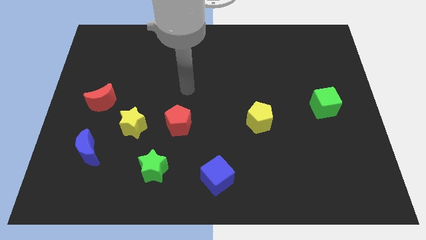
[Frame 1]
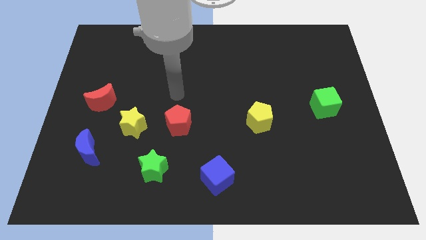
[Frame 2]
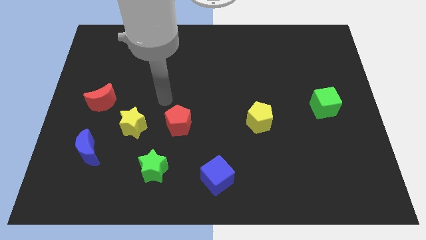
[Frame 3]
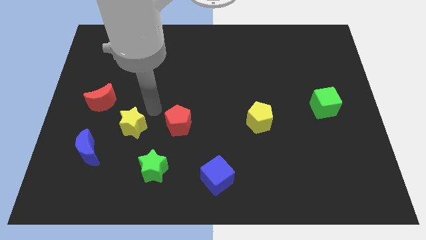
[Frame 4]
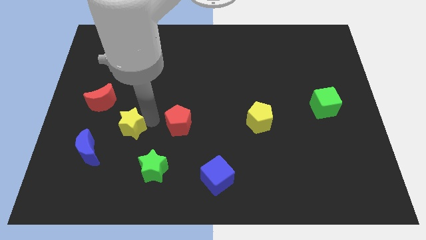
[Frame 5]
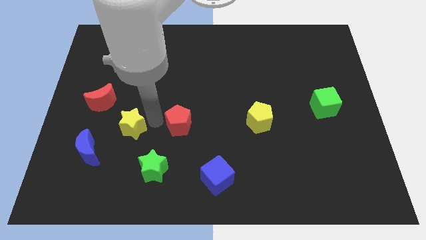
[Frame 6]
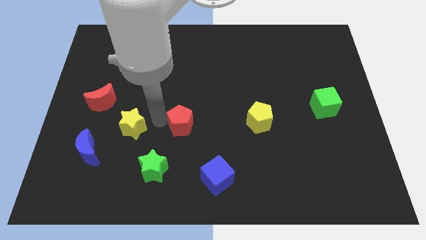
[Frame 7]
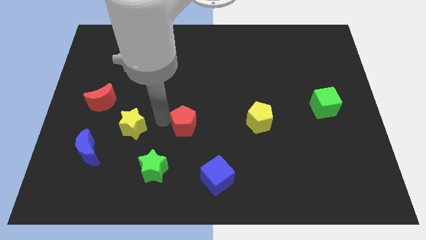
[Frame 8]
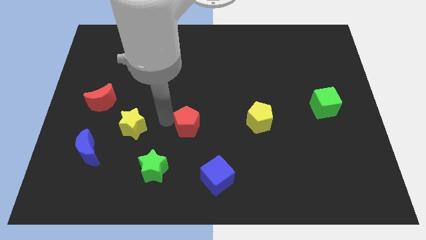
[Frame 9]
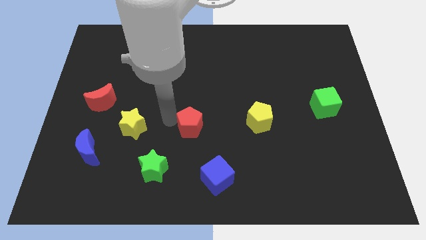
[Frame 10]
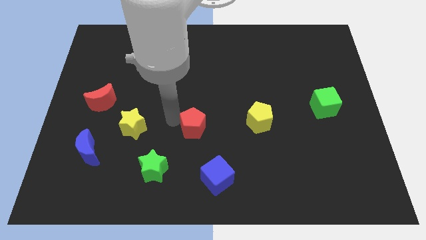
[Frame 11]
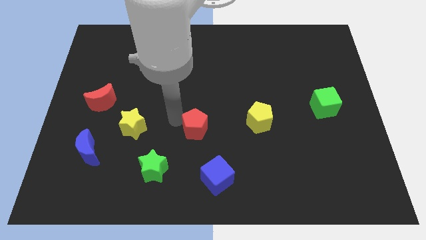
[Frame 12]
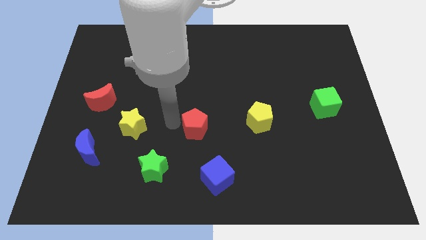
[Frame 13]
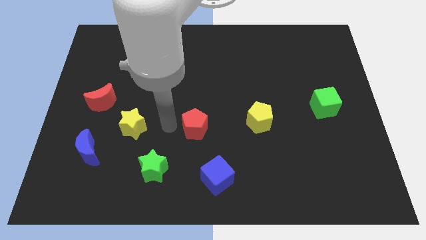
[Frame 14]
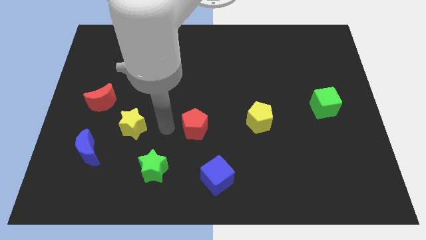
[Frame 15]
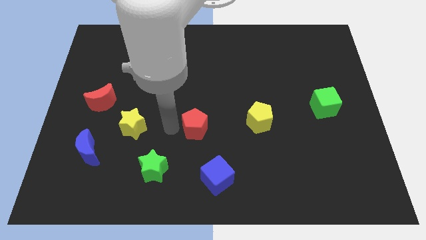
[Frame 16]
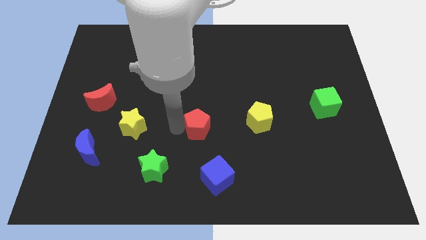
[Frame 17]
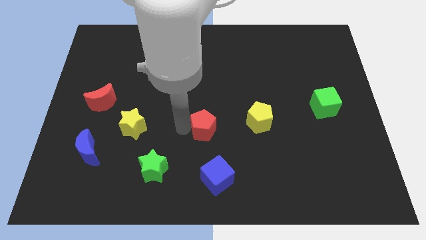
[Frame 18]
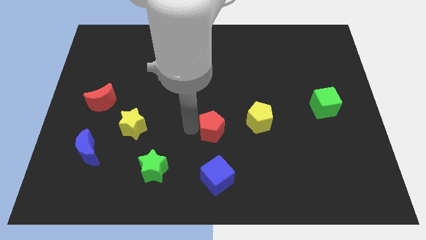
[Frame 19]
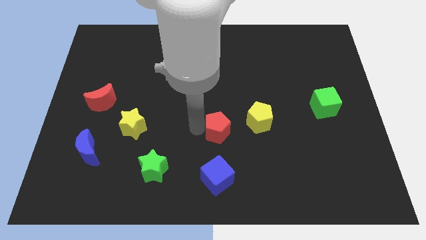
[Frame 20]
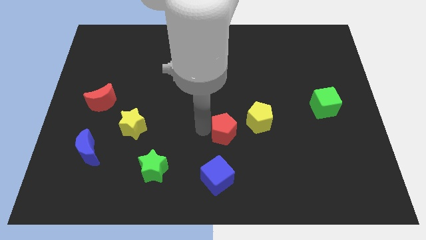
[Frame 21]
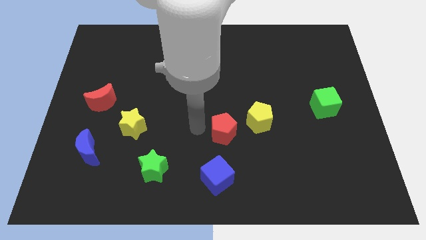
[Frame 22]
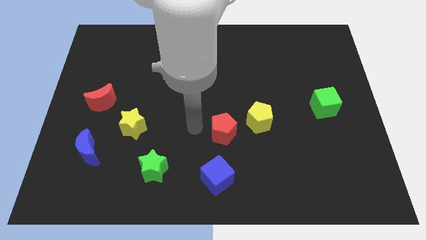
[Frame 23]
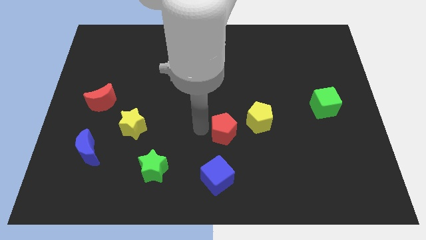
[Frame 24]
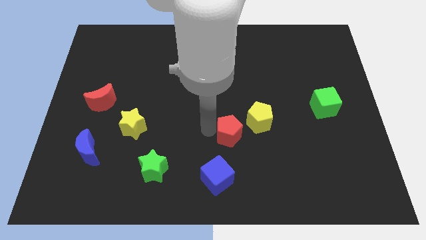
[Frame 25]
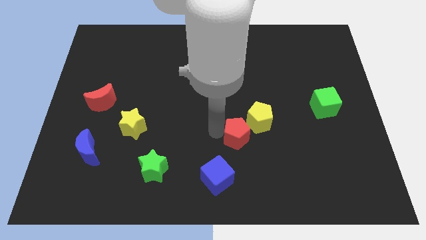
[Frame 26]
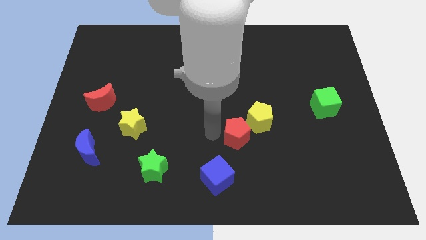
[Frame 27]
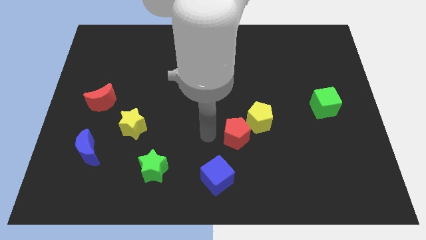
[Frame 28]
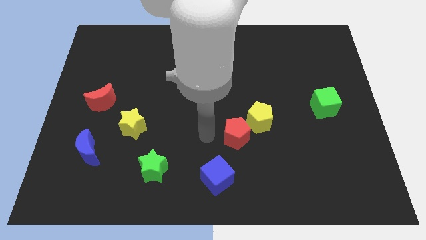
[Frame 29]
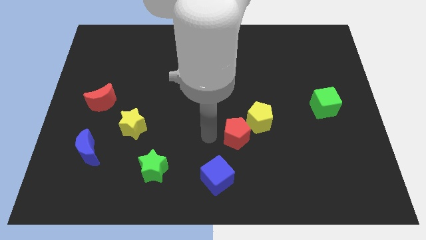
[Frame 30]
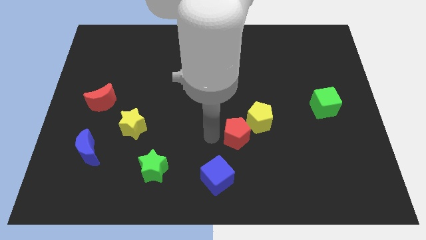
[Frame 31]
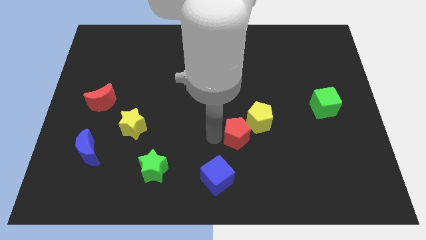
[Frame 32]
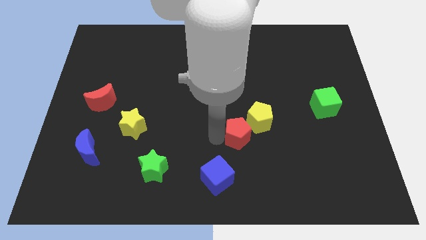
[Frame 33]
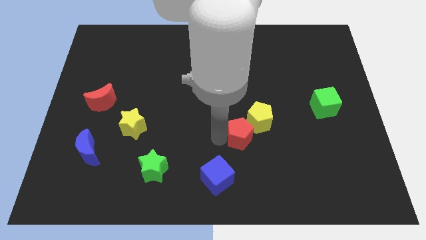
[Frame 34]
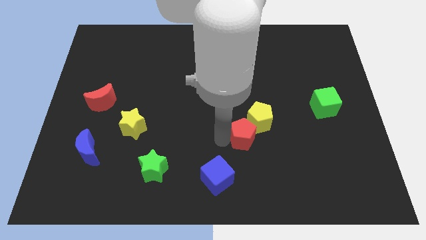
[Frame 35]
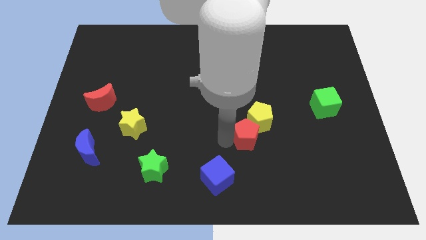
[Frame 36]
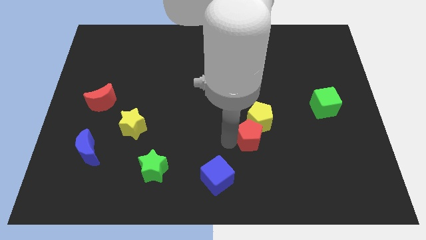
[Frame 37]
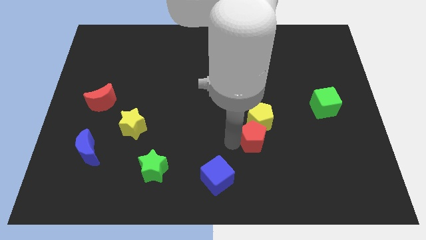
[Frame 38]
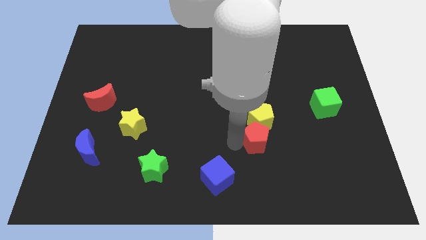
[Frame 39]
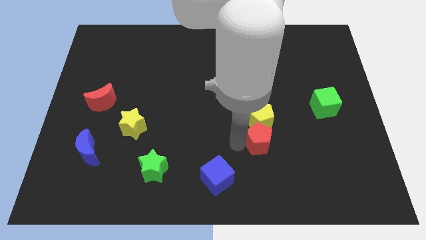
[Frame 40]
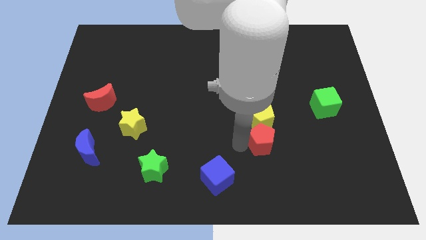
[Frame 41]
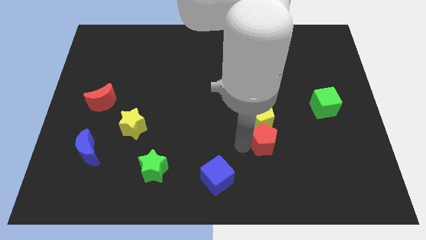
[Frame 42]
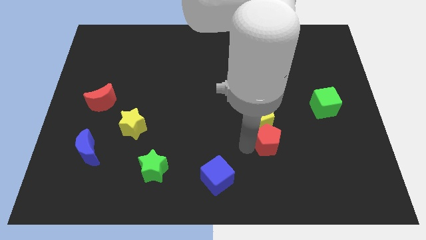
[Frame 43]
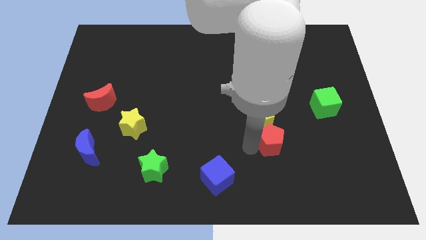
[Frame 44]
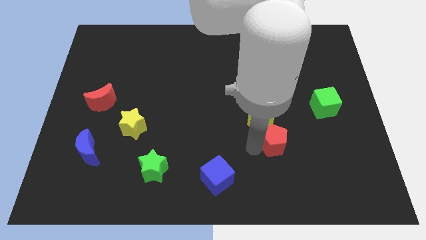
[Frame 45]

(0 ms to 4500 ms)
move the red pentagon right

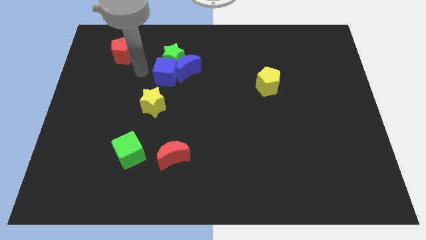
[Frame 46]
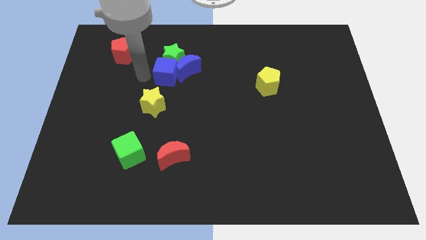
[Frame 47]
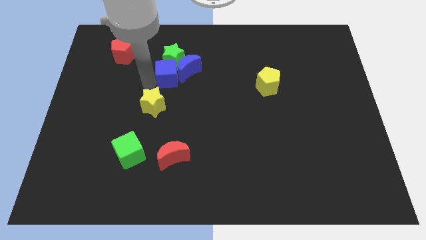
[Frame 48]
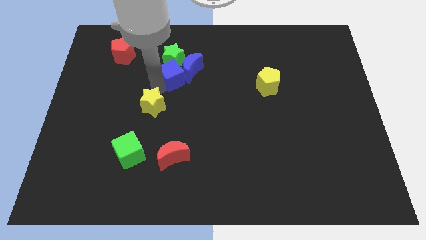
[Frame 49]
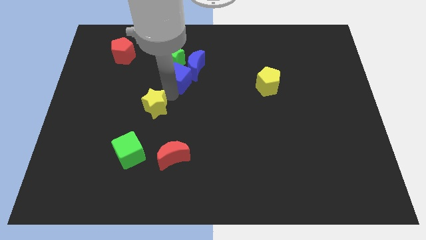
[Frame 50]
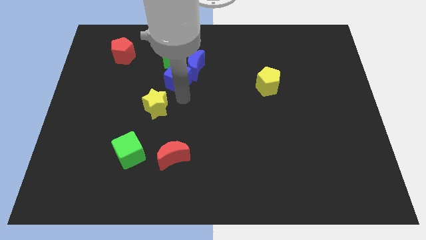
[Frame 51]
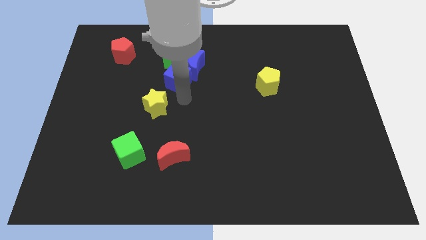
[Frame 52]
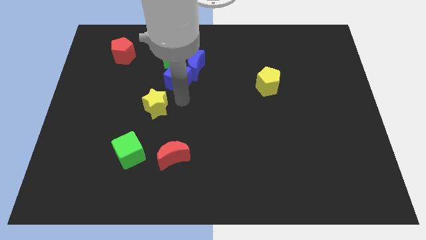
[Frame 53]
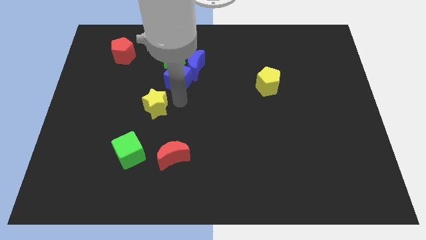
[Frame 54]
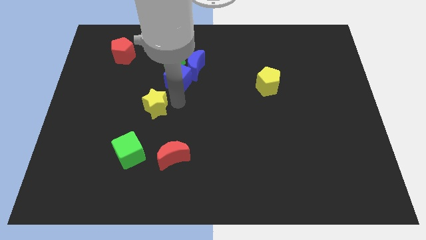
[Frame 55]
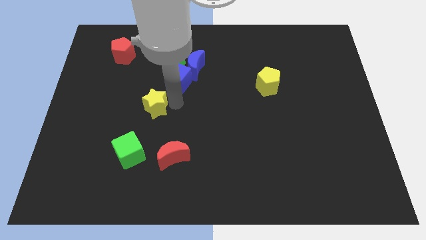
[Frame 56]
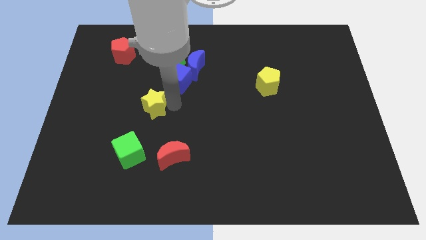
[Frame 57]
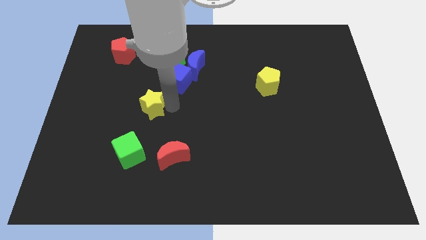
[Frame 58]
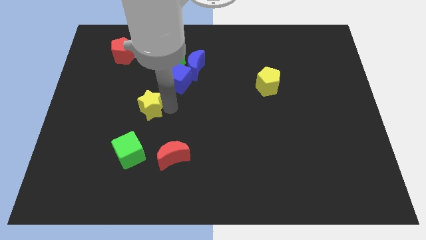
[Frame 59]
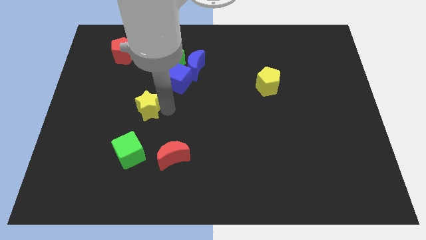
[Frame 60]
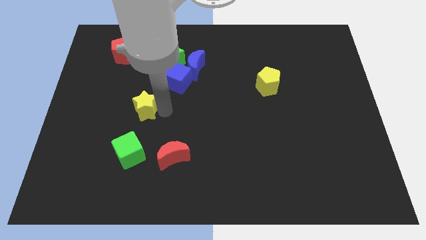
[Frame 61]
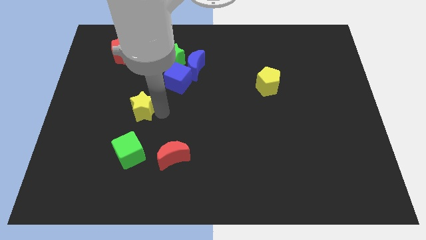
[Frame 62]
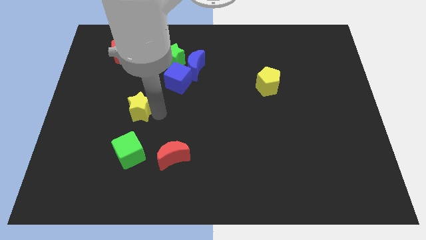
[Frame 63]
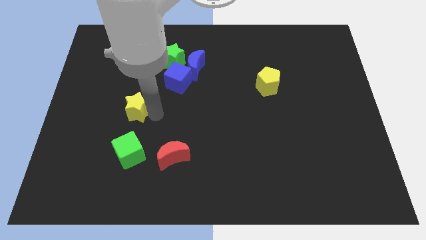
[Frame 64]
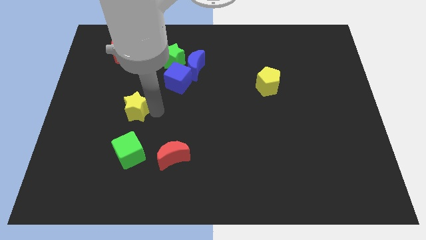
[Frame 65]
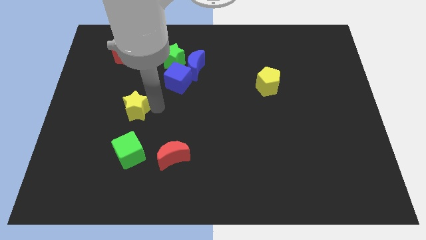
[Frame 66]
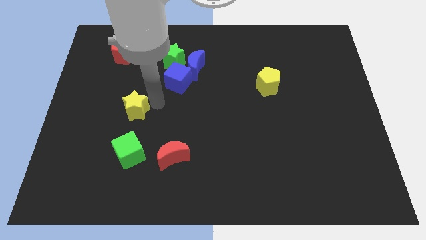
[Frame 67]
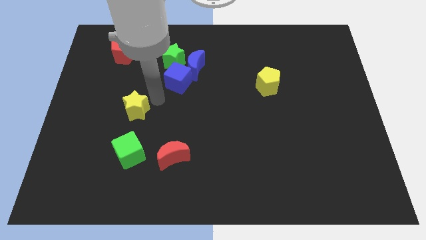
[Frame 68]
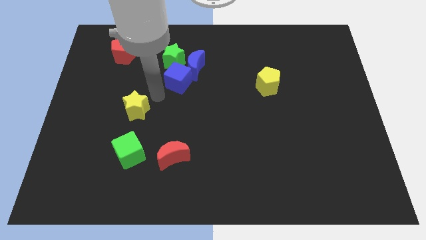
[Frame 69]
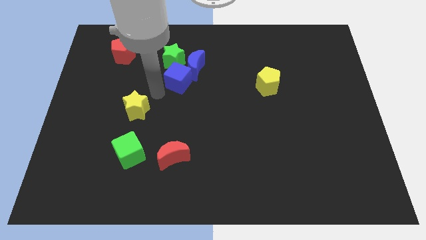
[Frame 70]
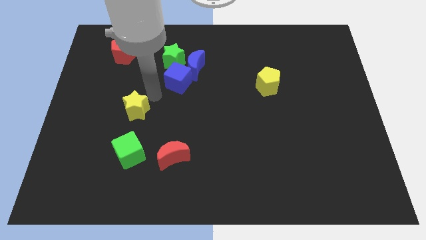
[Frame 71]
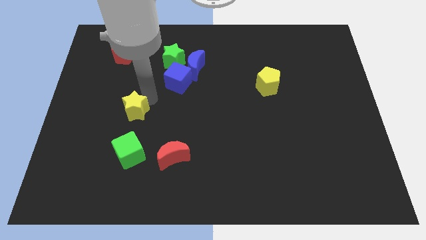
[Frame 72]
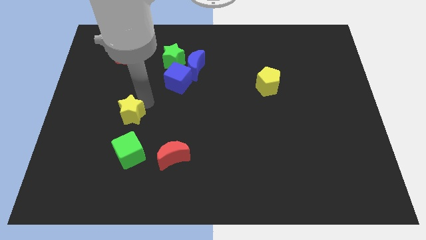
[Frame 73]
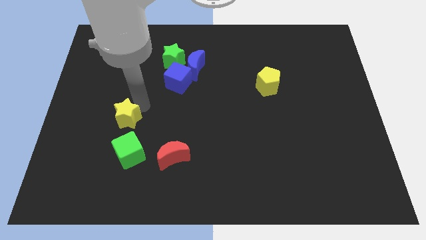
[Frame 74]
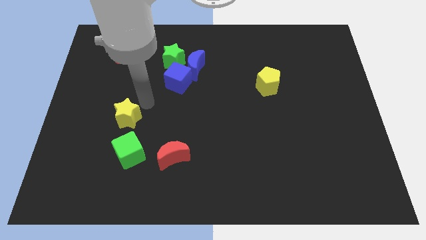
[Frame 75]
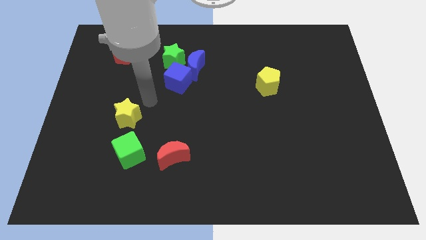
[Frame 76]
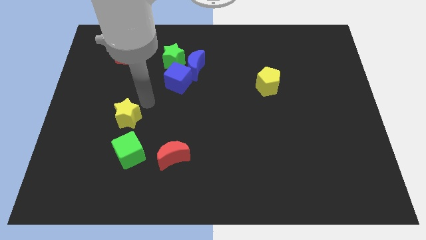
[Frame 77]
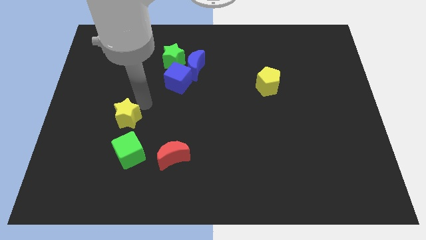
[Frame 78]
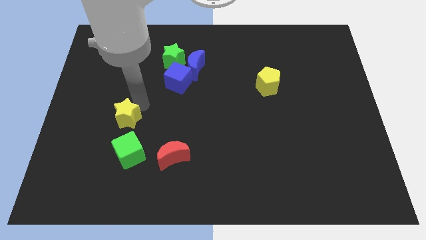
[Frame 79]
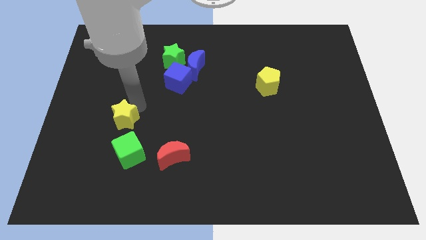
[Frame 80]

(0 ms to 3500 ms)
slightly slide the yellow star down and then to the left

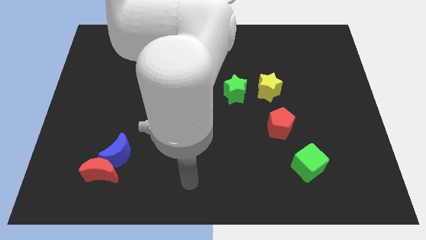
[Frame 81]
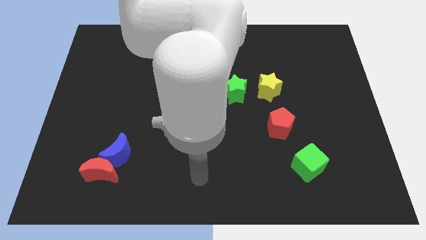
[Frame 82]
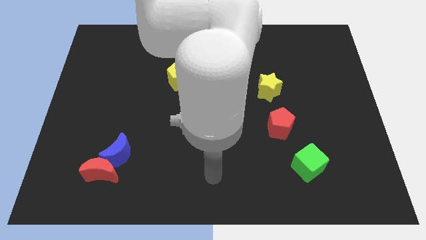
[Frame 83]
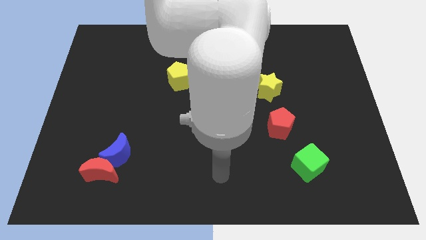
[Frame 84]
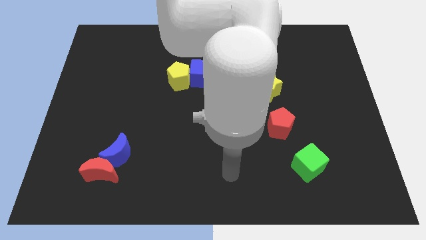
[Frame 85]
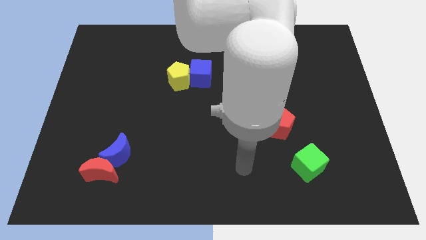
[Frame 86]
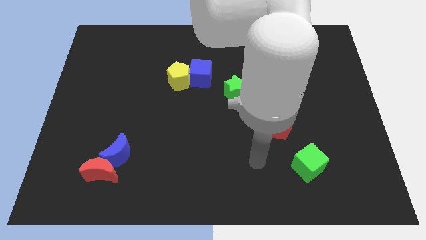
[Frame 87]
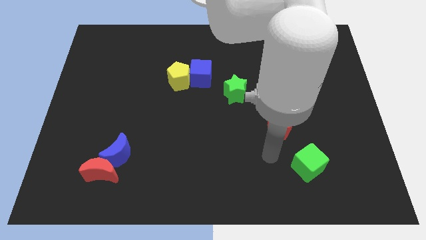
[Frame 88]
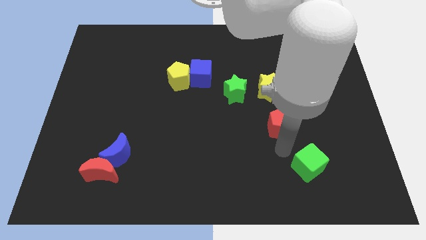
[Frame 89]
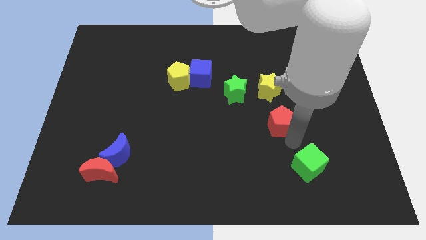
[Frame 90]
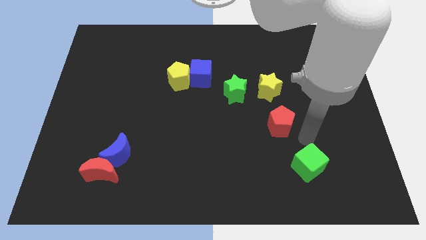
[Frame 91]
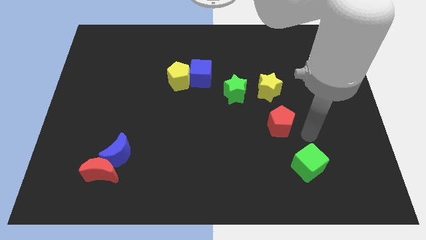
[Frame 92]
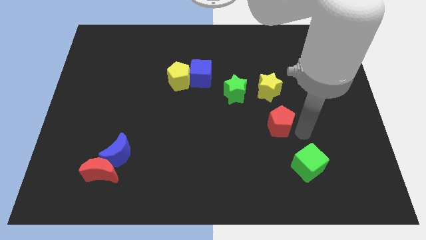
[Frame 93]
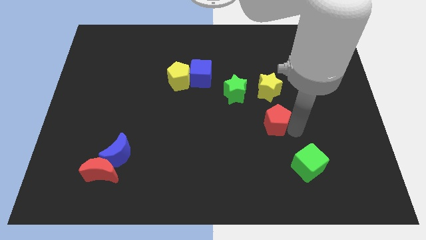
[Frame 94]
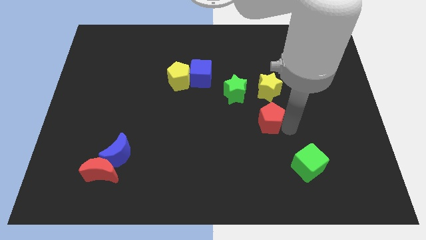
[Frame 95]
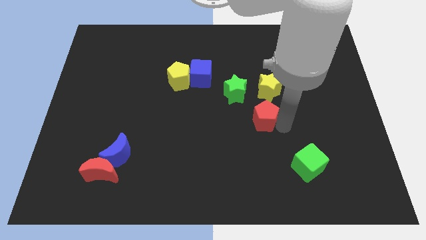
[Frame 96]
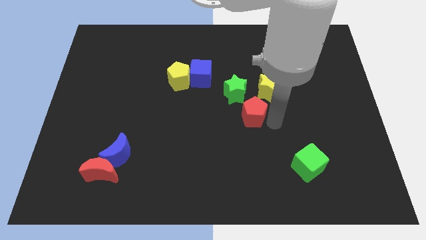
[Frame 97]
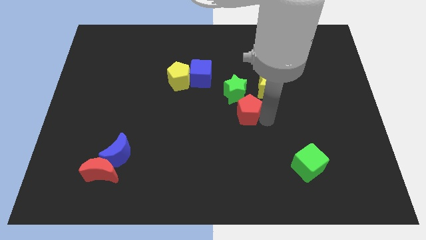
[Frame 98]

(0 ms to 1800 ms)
slightly move the red pentagon up and left
